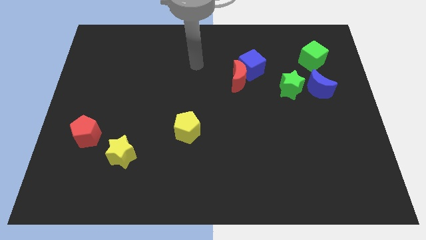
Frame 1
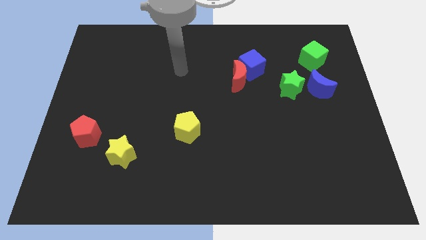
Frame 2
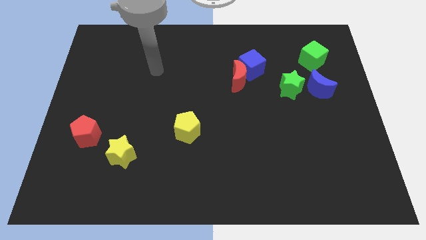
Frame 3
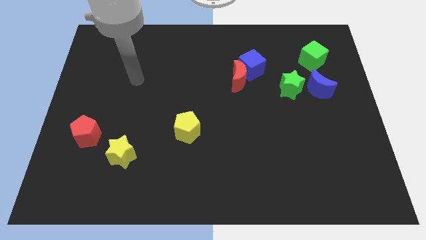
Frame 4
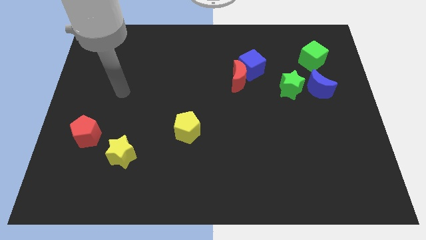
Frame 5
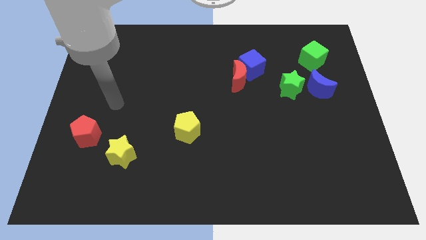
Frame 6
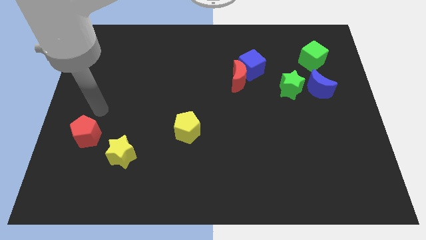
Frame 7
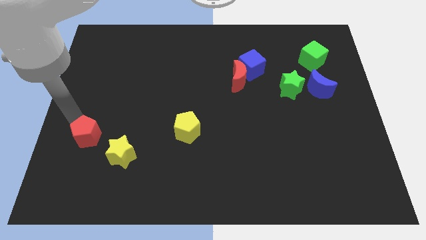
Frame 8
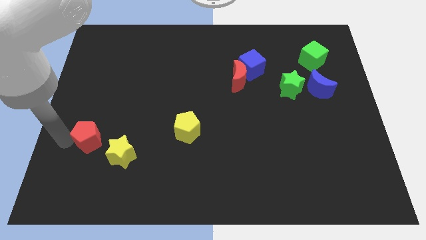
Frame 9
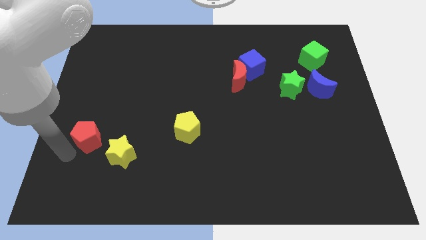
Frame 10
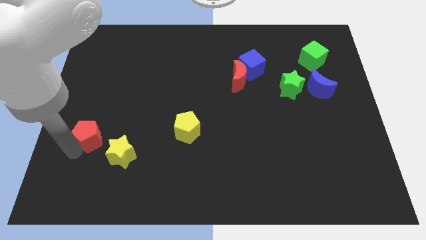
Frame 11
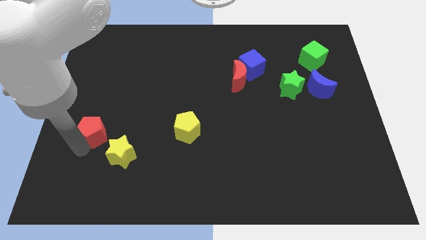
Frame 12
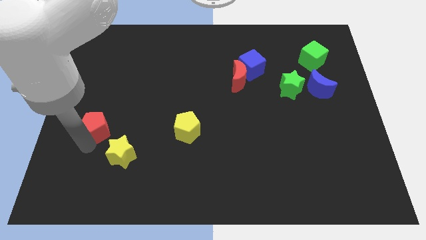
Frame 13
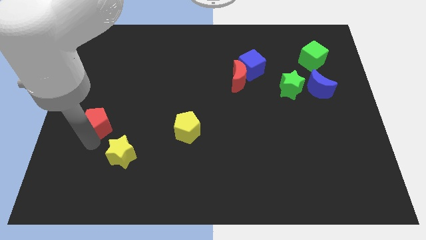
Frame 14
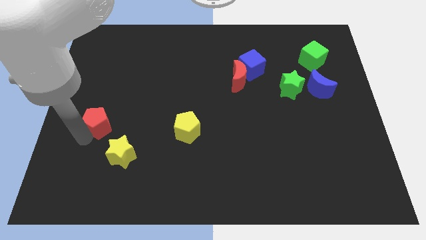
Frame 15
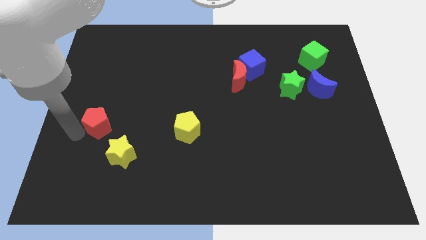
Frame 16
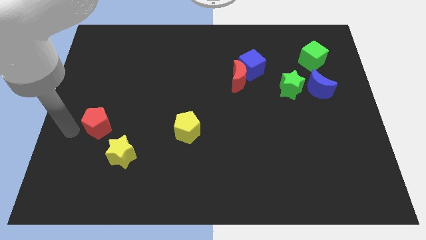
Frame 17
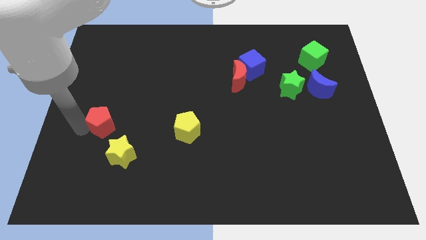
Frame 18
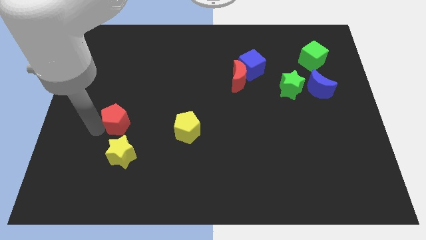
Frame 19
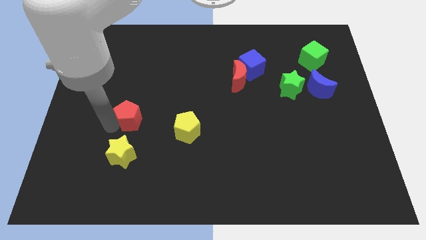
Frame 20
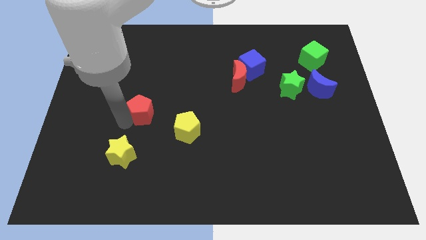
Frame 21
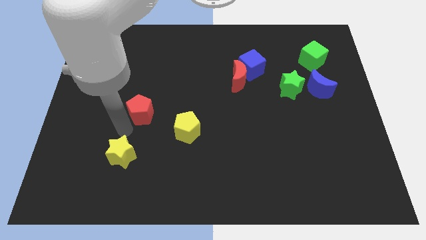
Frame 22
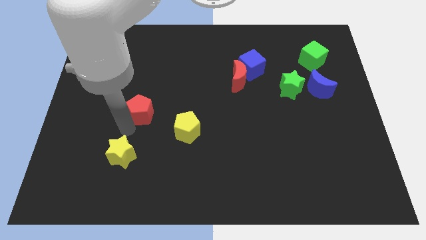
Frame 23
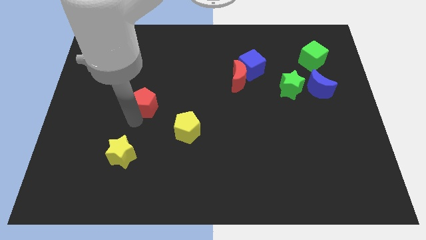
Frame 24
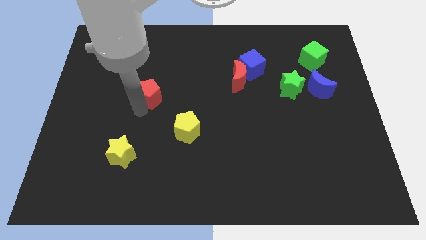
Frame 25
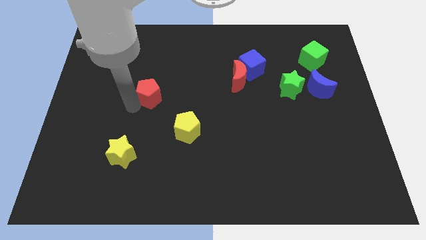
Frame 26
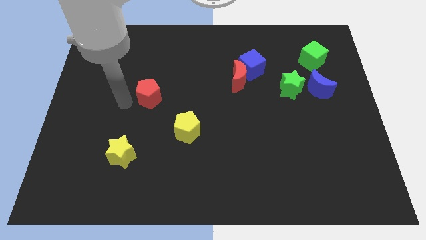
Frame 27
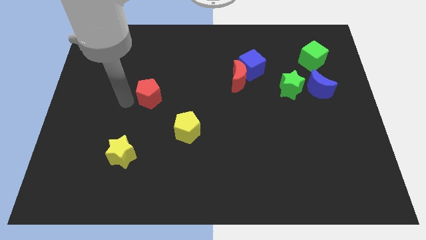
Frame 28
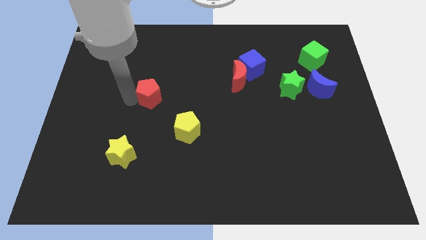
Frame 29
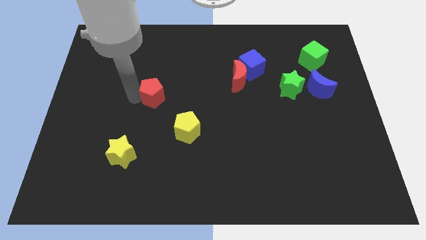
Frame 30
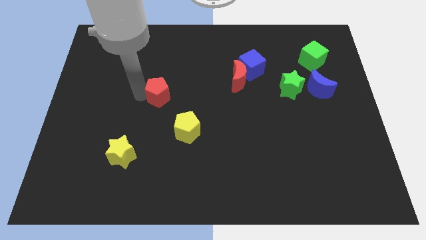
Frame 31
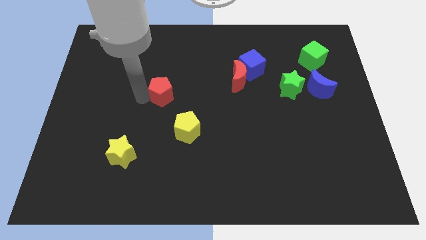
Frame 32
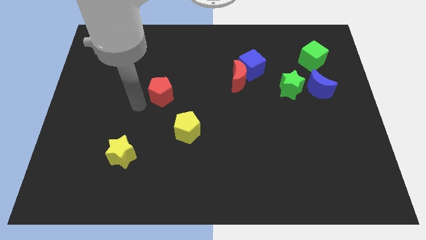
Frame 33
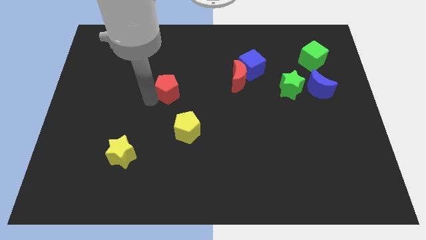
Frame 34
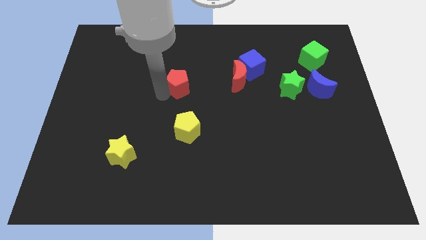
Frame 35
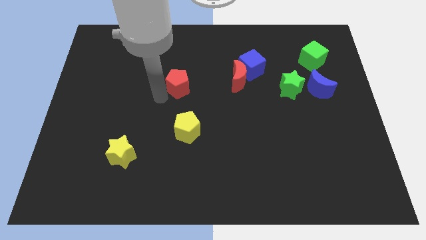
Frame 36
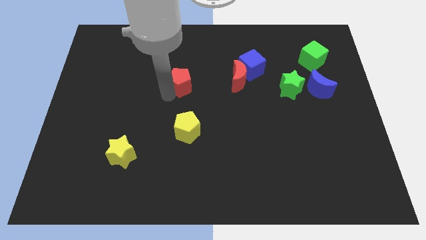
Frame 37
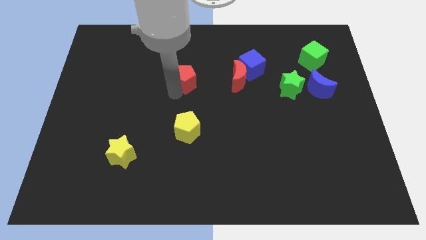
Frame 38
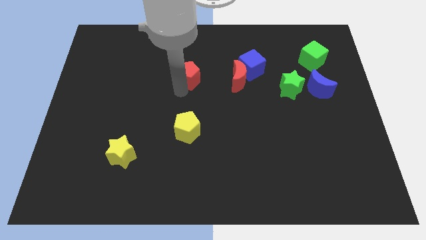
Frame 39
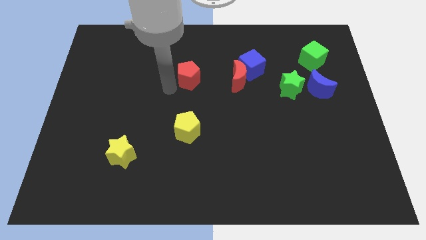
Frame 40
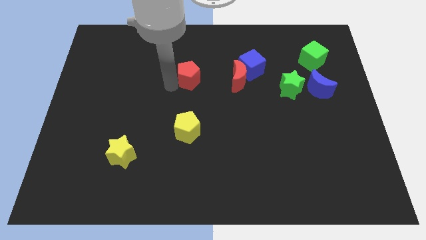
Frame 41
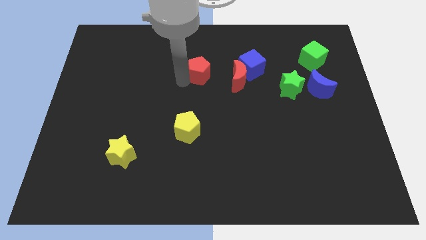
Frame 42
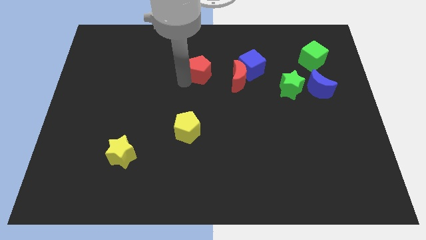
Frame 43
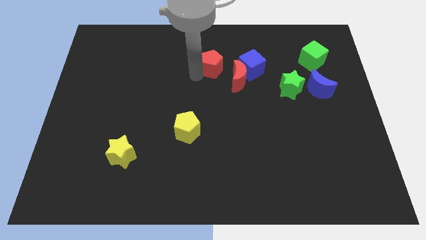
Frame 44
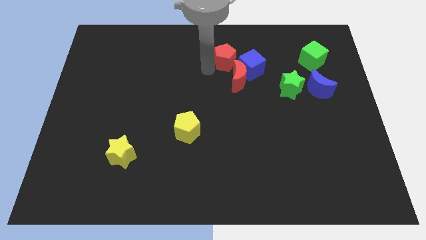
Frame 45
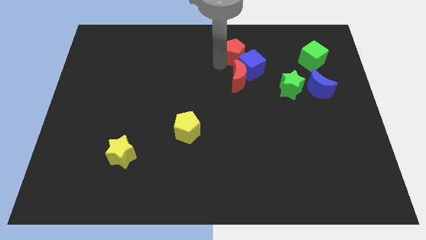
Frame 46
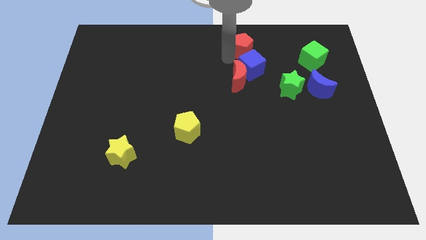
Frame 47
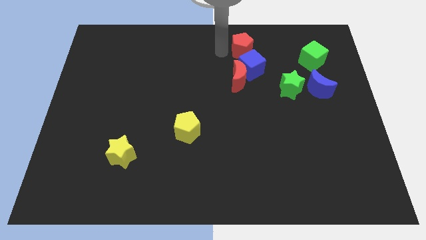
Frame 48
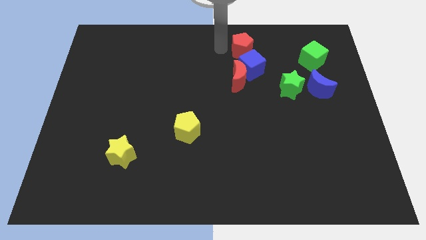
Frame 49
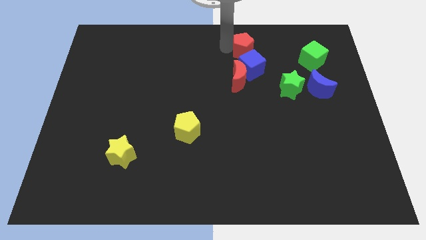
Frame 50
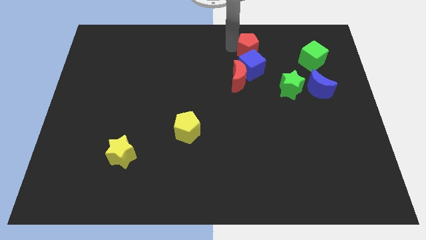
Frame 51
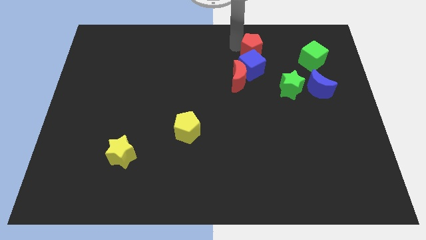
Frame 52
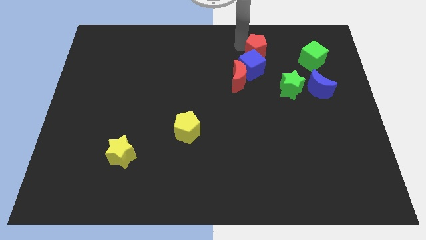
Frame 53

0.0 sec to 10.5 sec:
put the red pentagon to the top right of the red moon

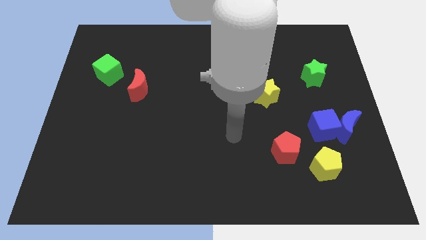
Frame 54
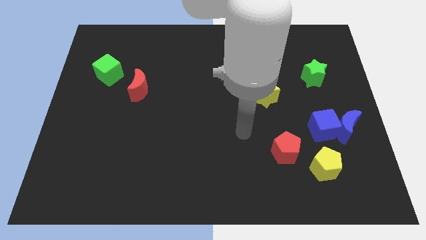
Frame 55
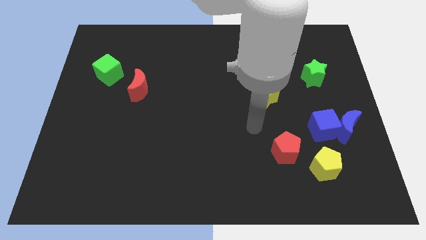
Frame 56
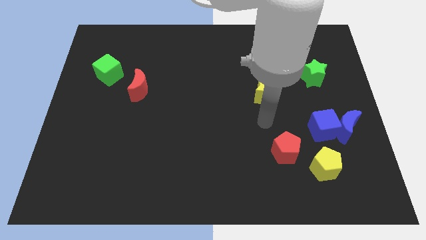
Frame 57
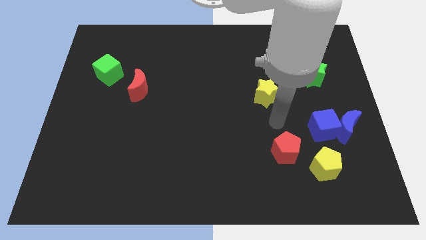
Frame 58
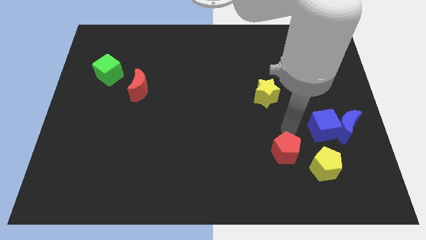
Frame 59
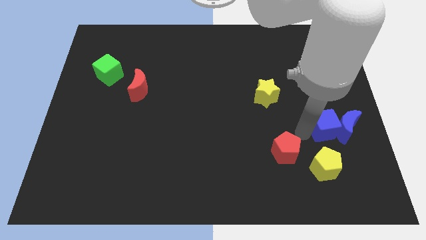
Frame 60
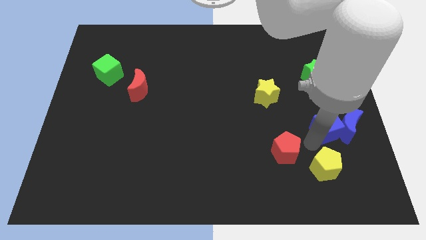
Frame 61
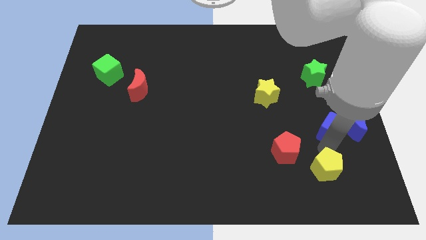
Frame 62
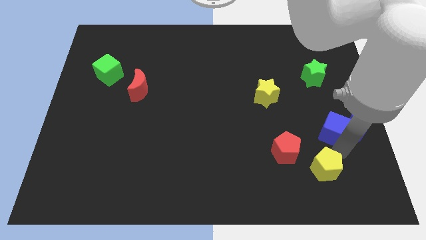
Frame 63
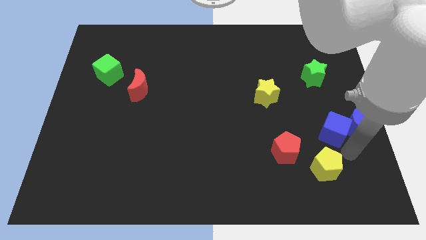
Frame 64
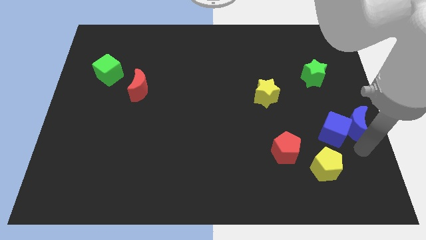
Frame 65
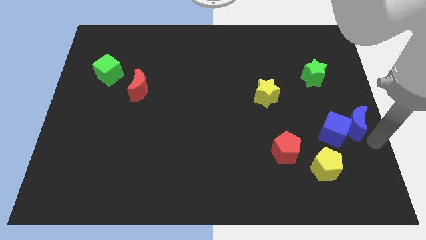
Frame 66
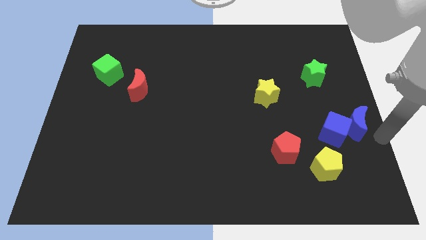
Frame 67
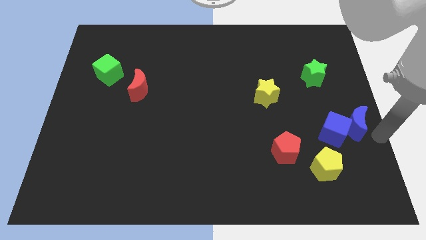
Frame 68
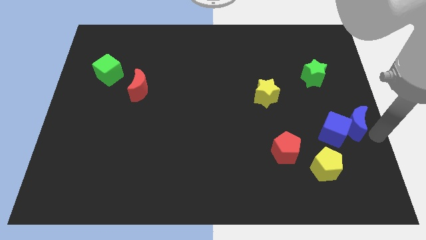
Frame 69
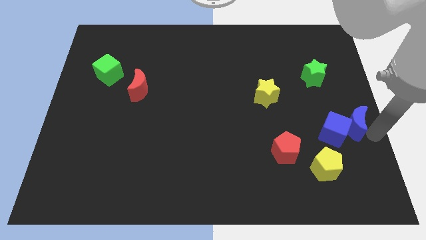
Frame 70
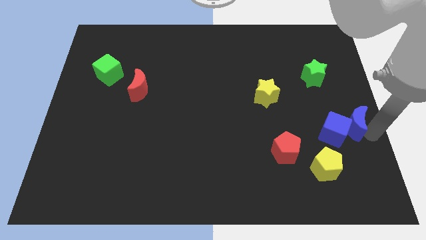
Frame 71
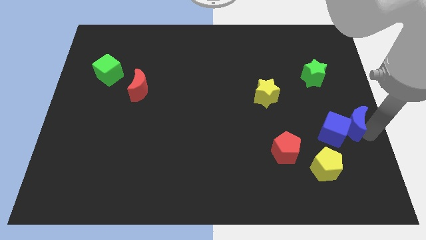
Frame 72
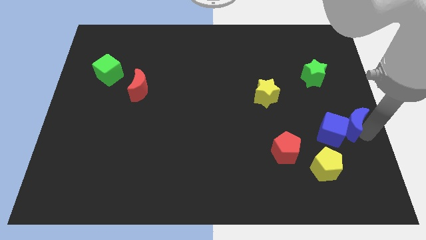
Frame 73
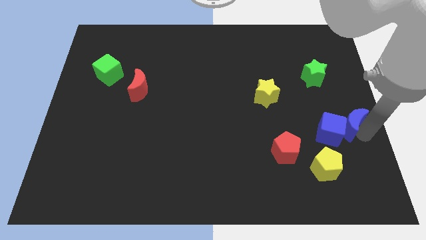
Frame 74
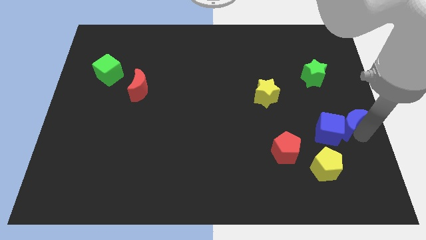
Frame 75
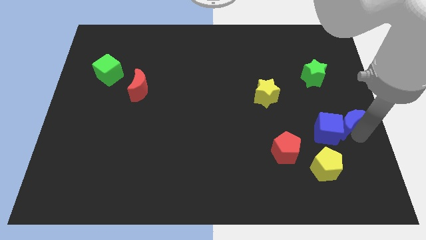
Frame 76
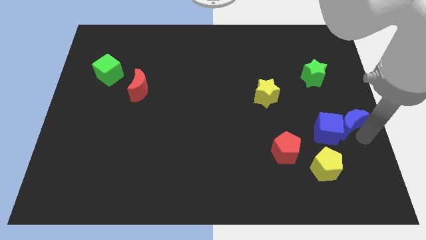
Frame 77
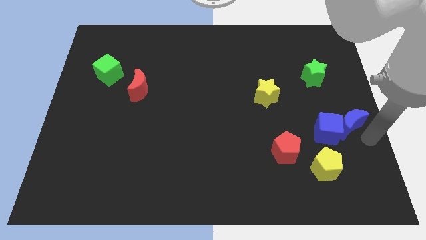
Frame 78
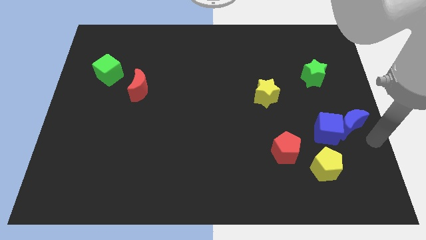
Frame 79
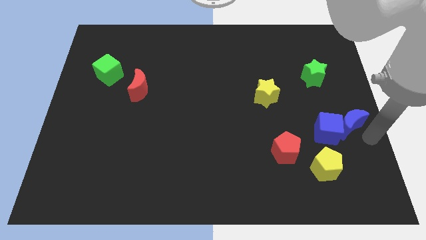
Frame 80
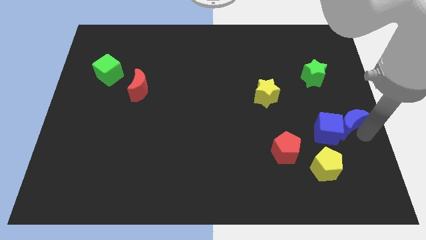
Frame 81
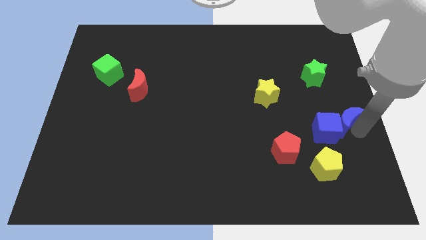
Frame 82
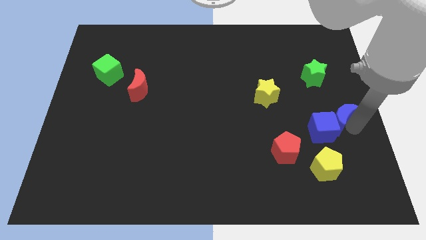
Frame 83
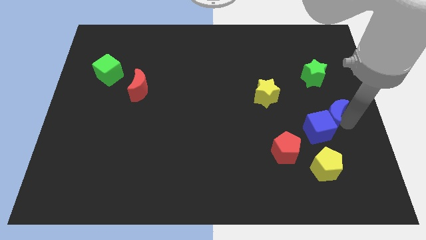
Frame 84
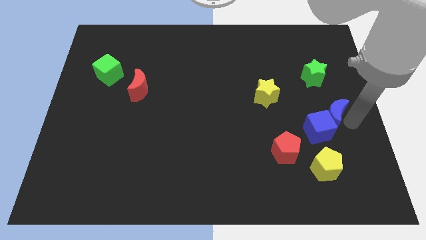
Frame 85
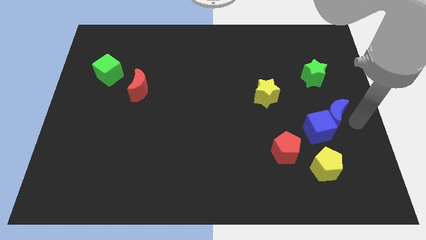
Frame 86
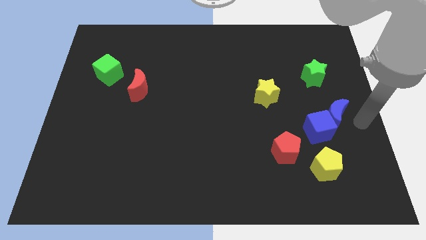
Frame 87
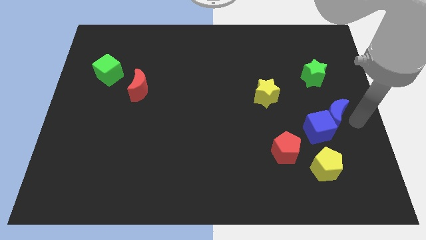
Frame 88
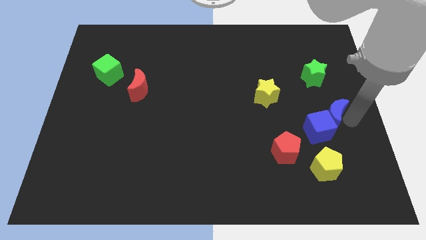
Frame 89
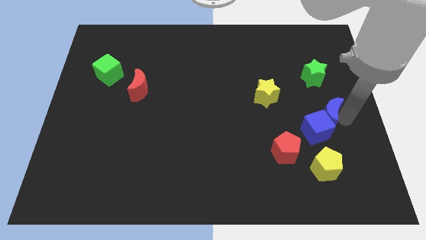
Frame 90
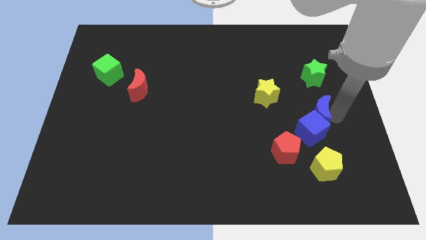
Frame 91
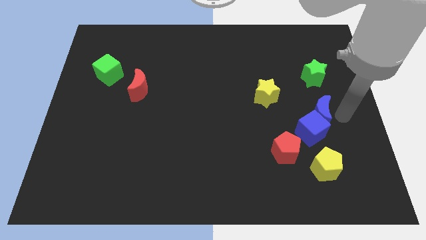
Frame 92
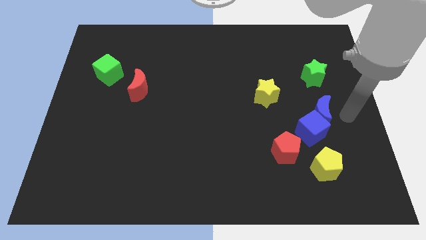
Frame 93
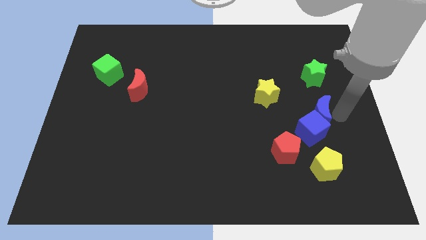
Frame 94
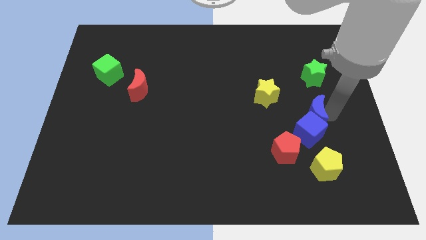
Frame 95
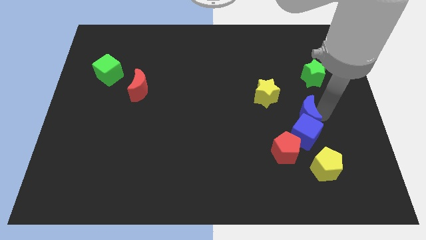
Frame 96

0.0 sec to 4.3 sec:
put the blue moon diagonally up and to the left of the blue cube
